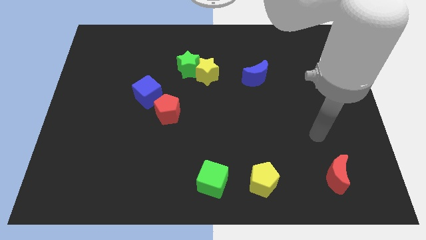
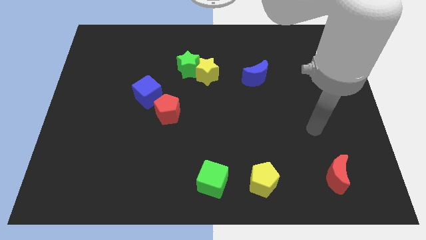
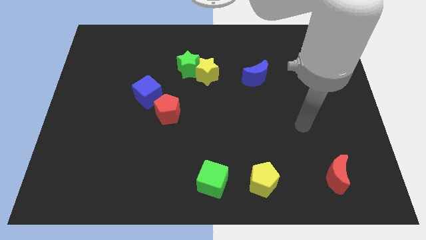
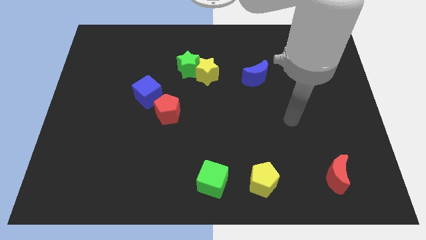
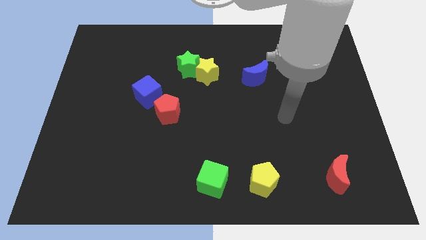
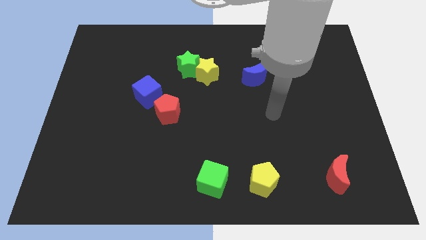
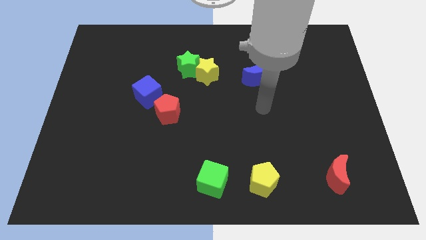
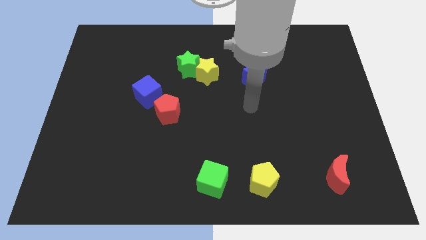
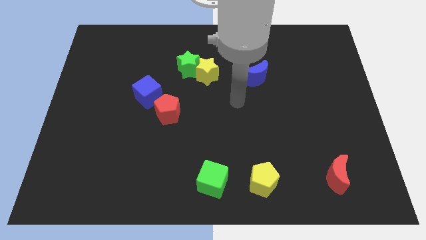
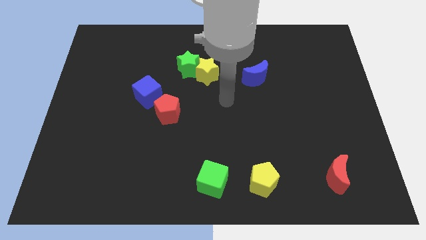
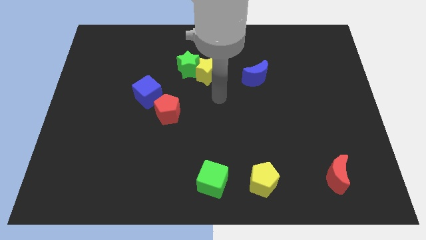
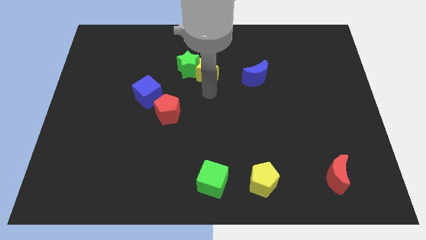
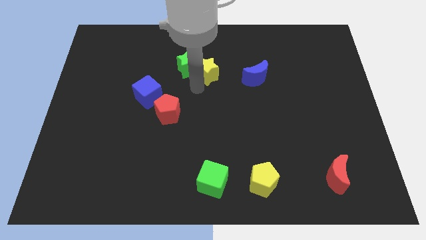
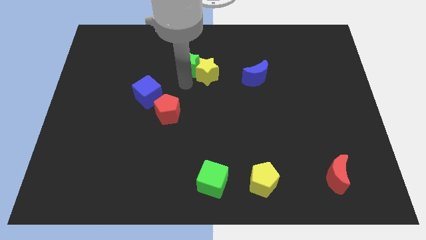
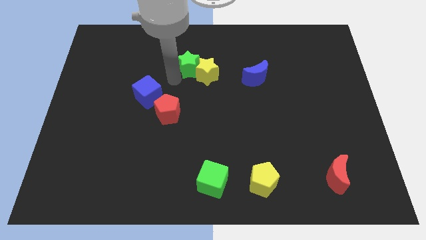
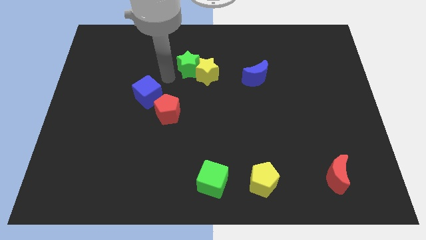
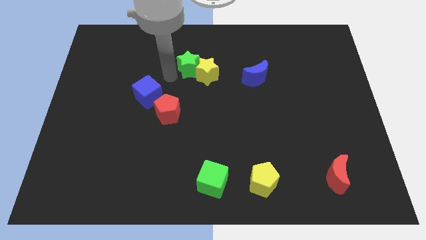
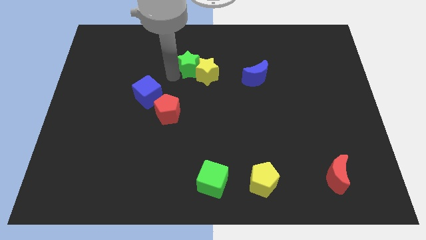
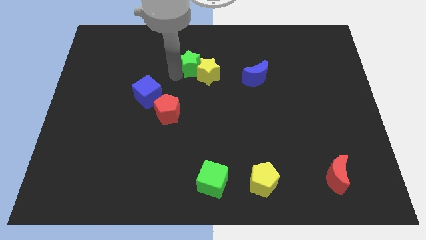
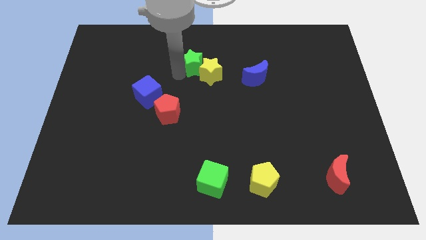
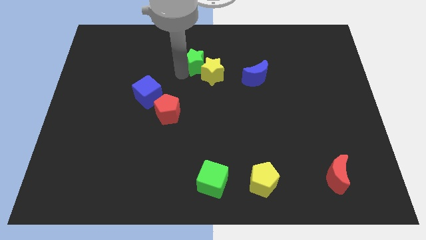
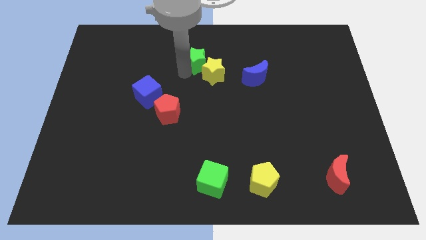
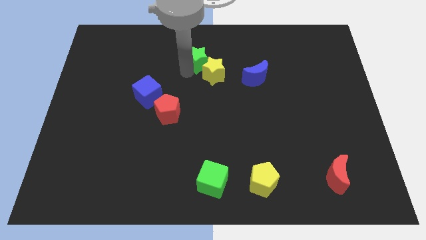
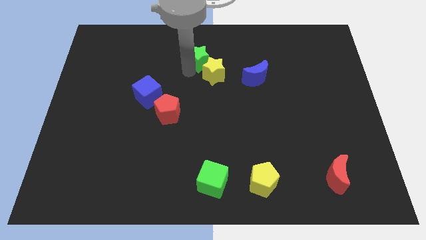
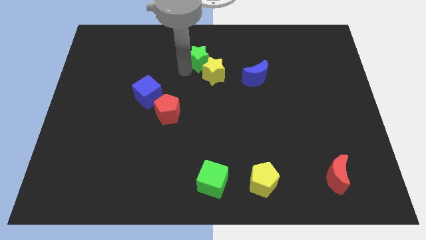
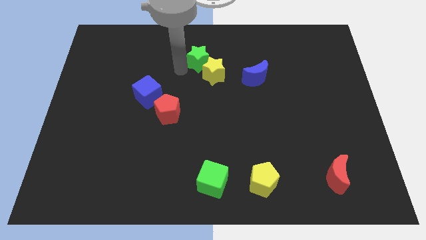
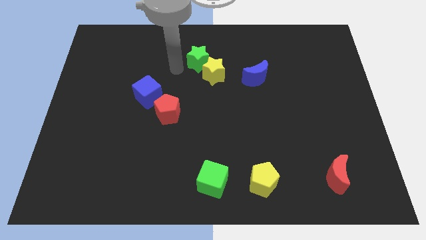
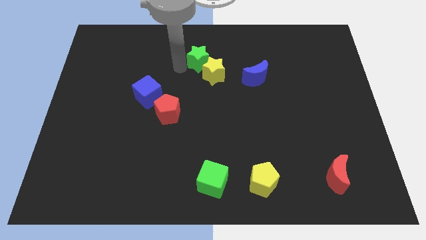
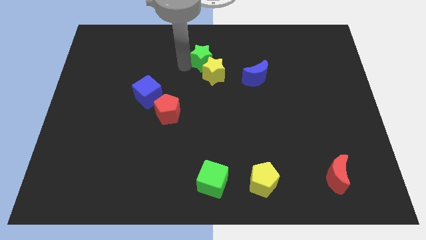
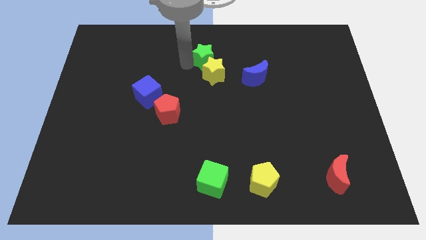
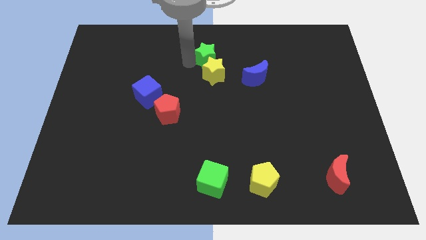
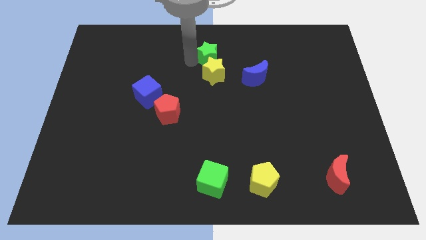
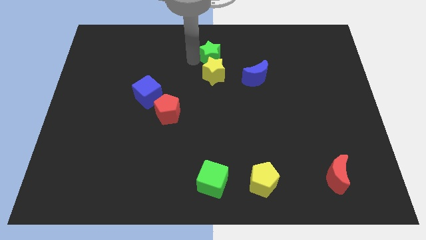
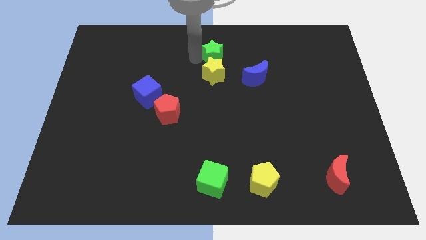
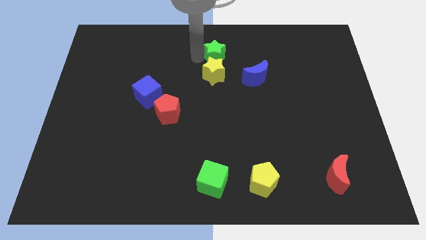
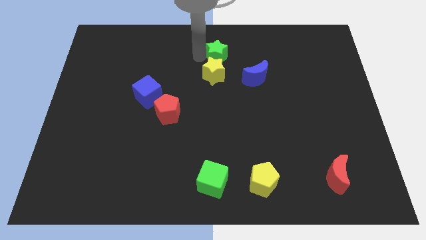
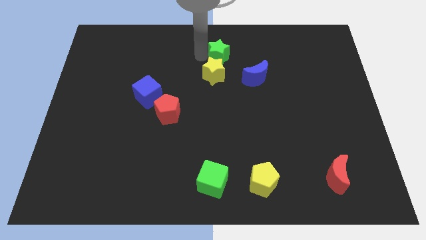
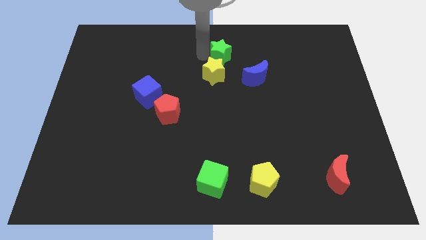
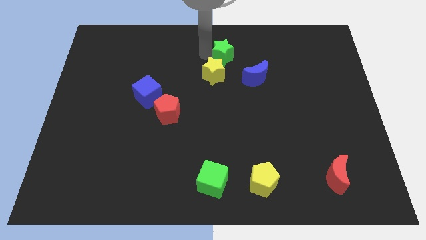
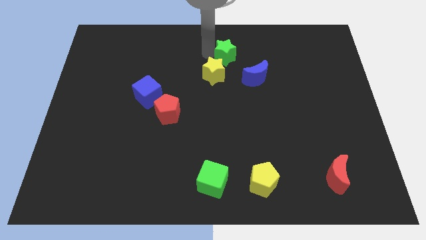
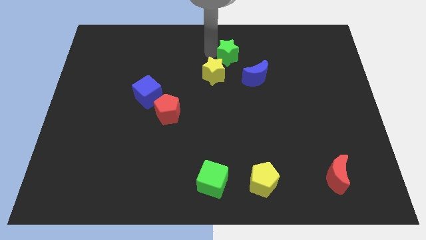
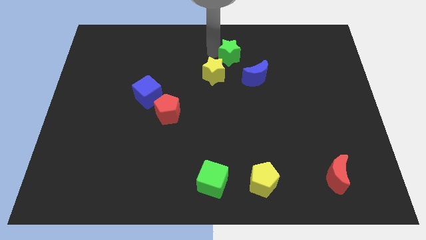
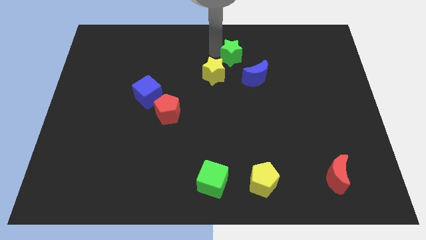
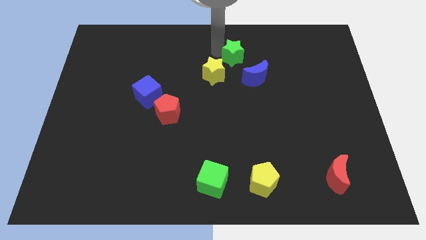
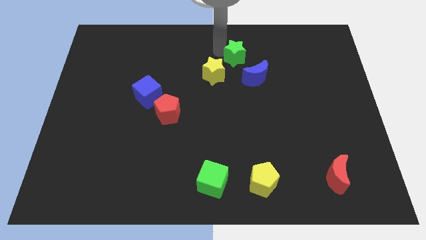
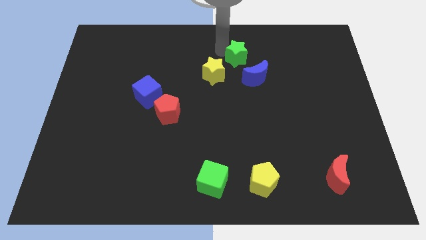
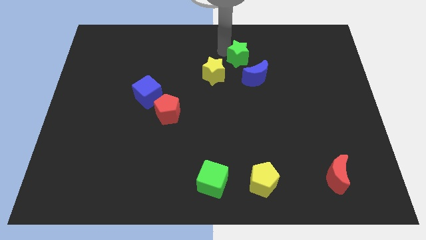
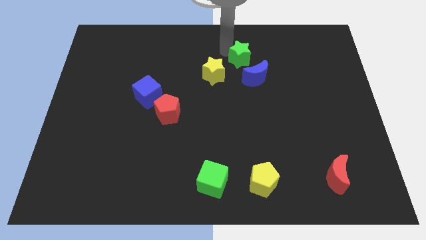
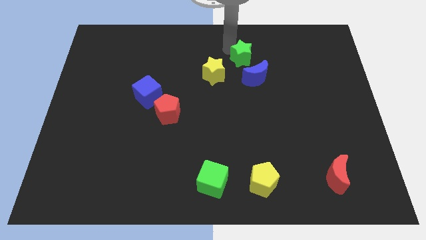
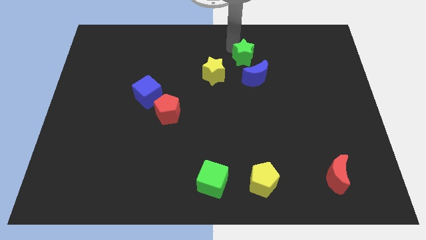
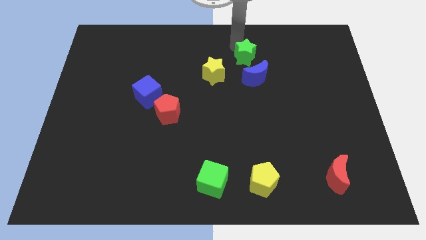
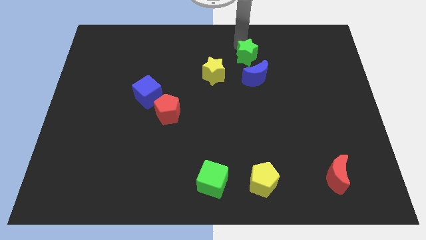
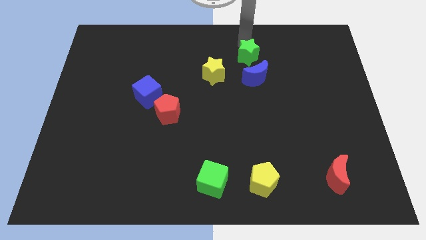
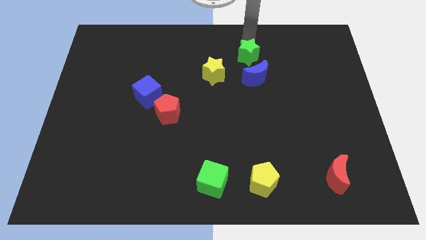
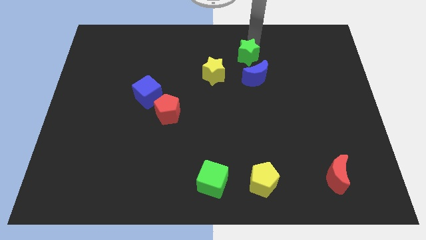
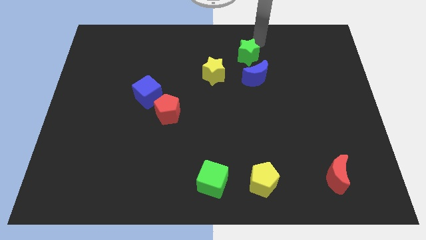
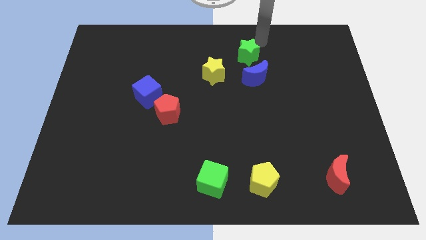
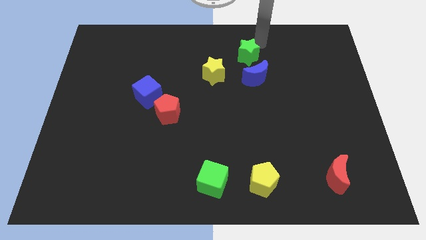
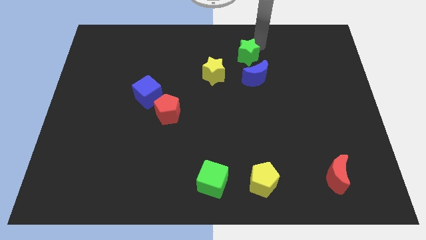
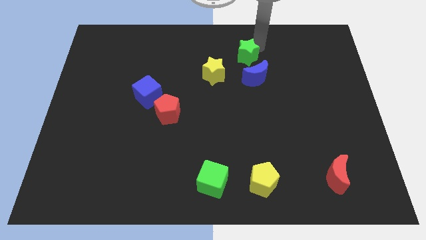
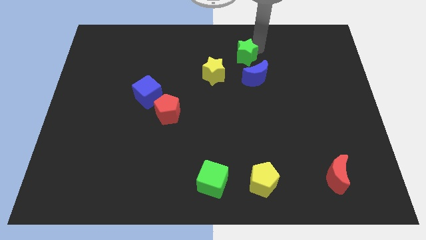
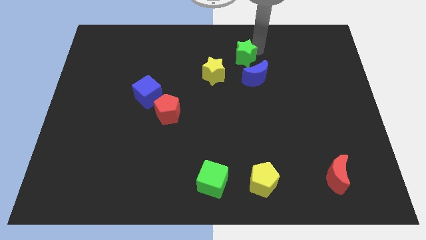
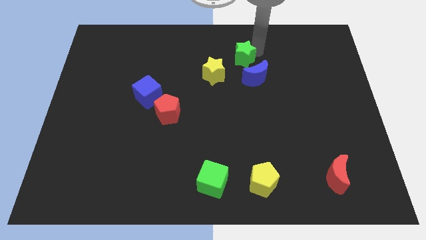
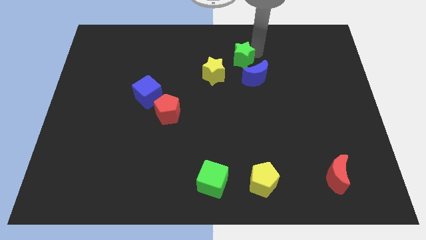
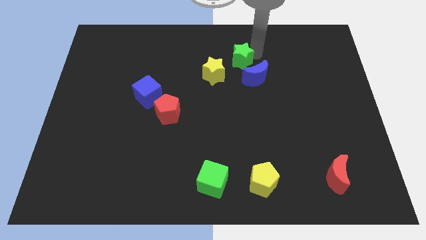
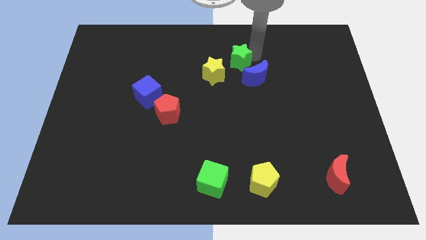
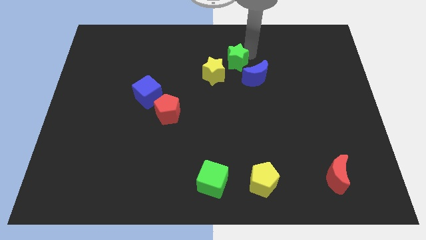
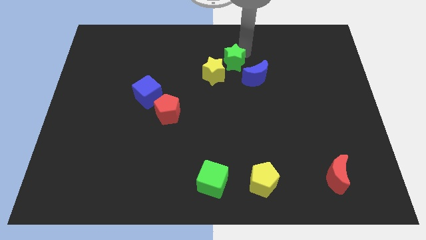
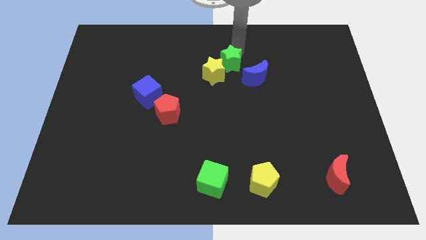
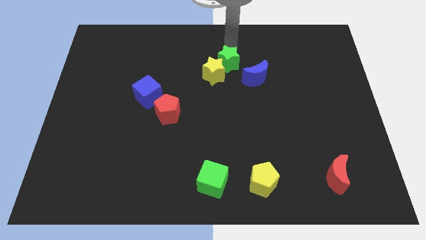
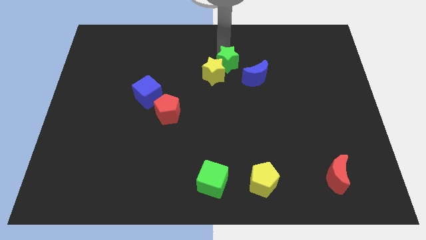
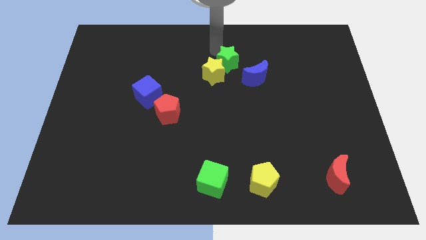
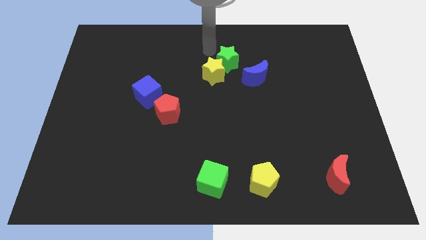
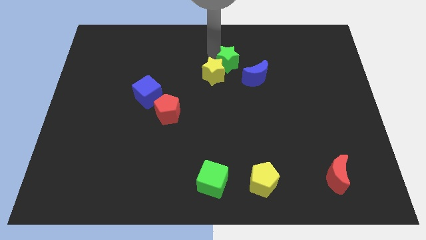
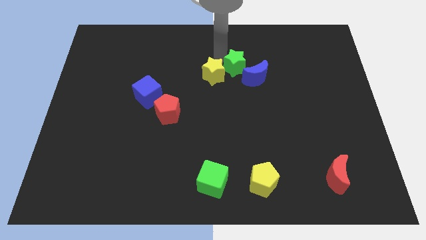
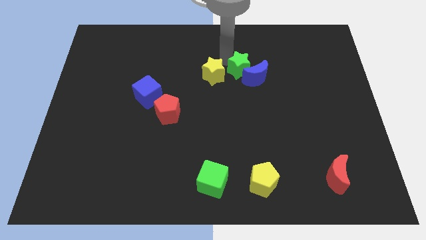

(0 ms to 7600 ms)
slide the green star close to the blue moon
